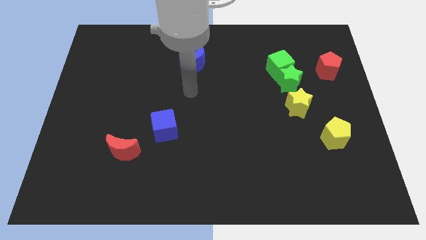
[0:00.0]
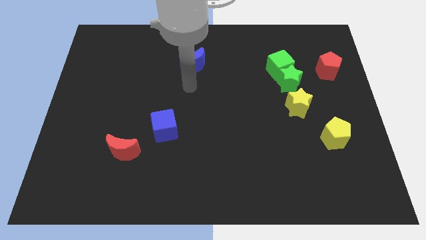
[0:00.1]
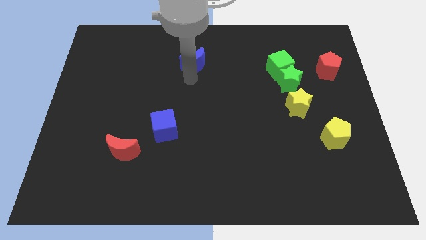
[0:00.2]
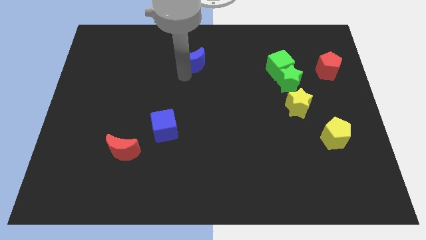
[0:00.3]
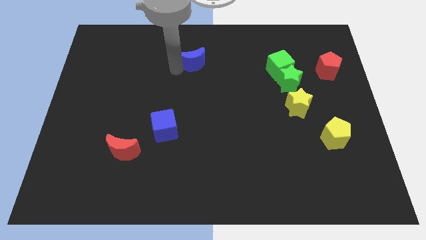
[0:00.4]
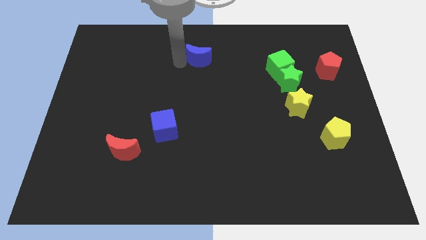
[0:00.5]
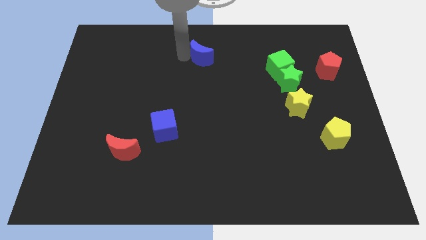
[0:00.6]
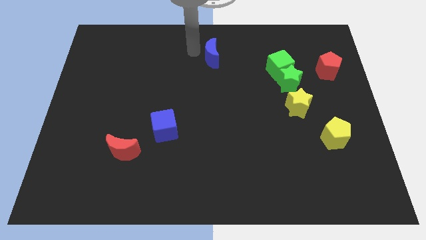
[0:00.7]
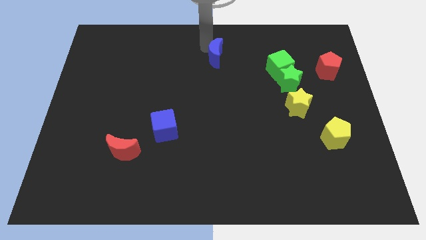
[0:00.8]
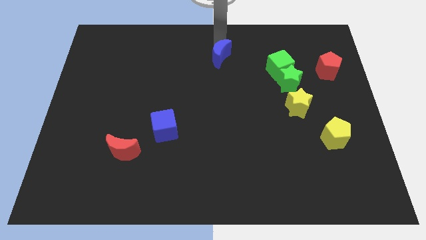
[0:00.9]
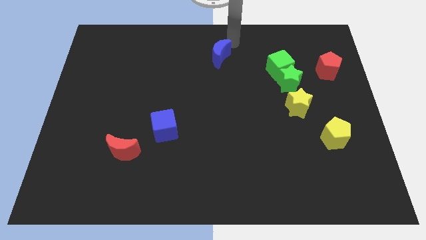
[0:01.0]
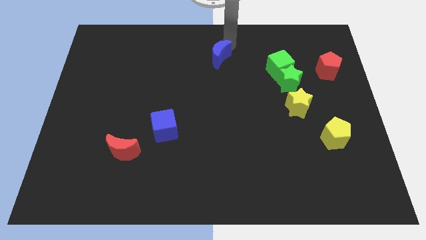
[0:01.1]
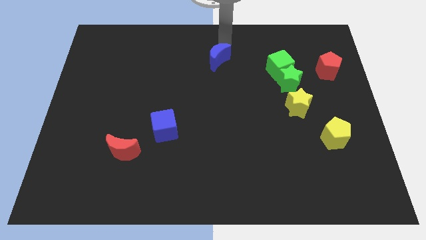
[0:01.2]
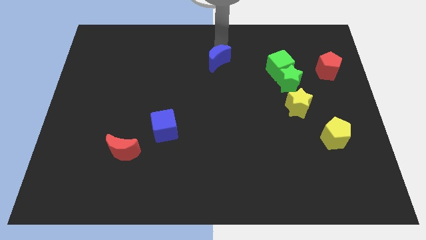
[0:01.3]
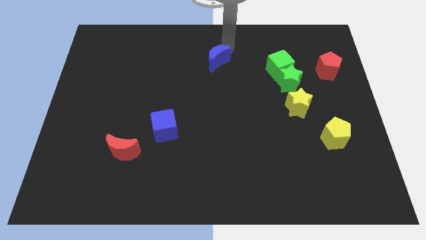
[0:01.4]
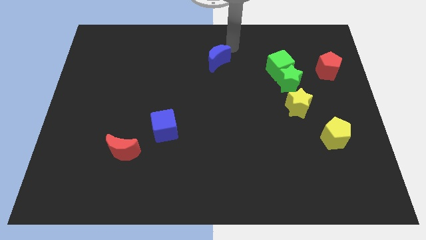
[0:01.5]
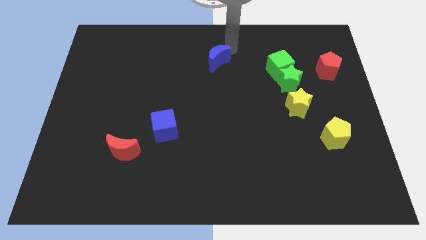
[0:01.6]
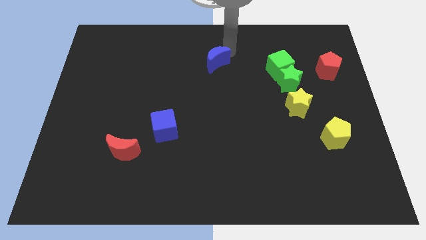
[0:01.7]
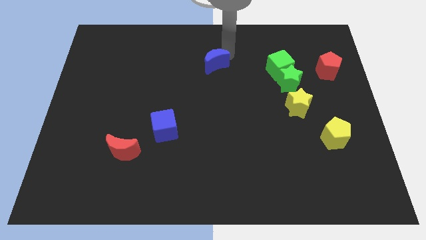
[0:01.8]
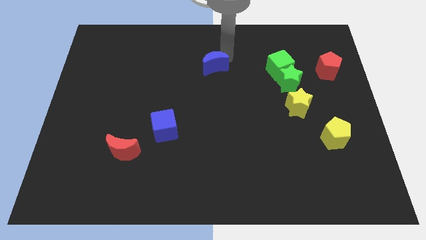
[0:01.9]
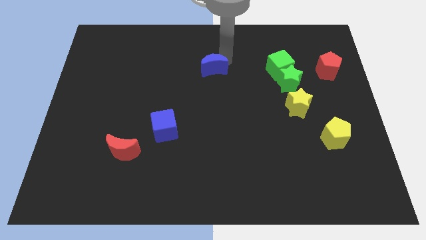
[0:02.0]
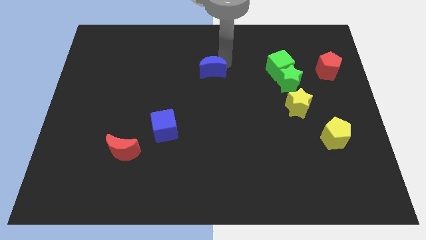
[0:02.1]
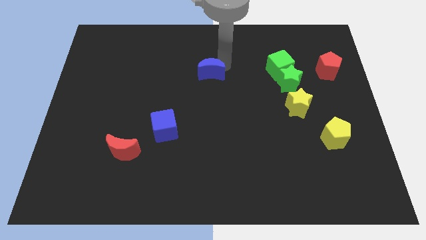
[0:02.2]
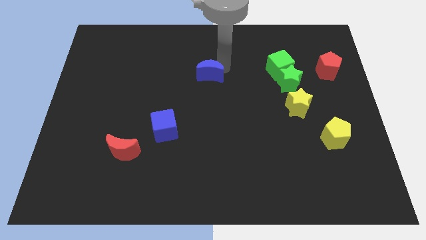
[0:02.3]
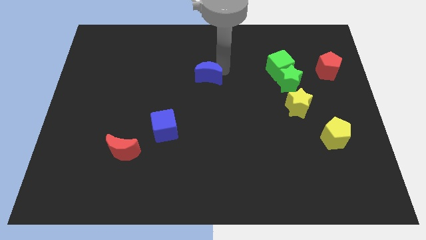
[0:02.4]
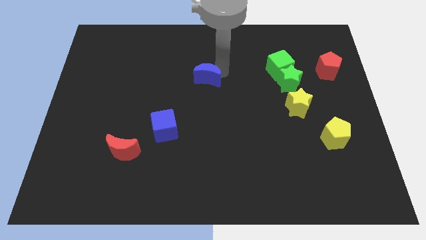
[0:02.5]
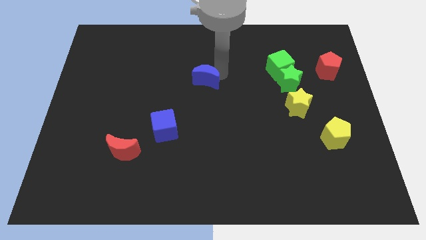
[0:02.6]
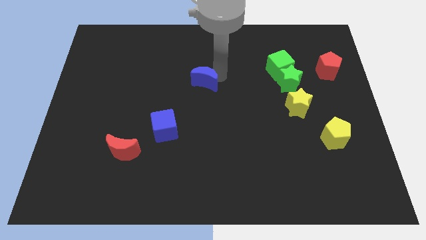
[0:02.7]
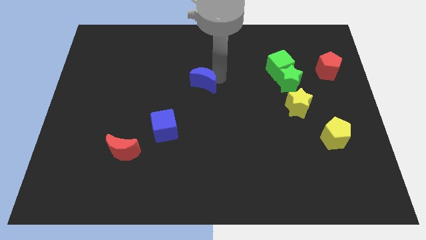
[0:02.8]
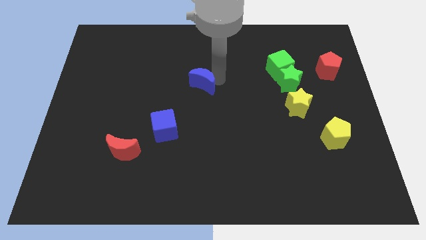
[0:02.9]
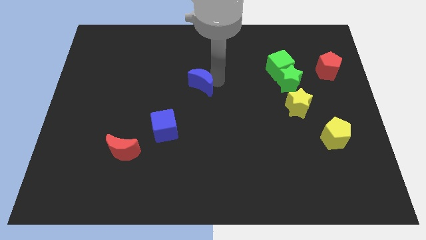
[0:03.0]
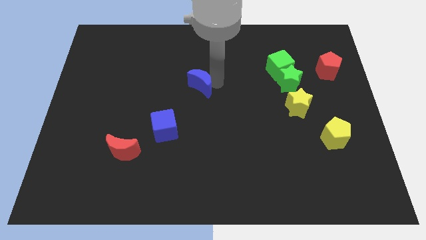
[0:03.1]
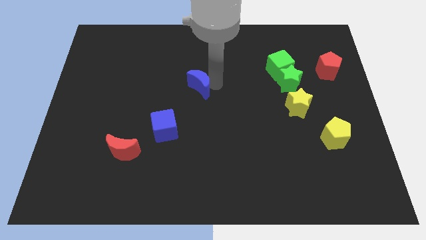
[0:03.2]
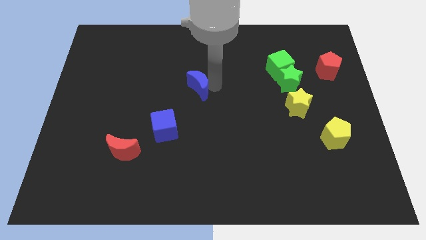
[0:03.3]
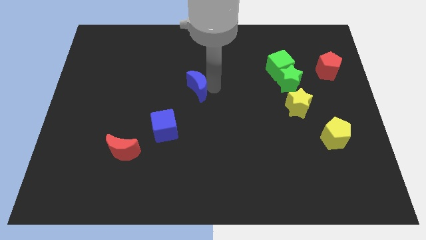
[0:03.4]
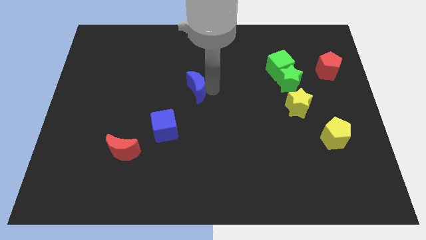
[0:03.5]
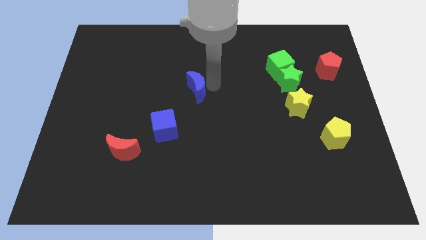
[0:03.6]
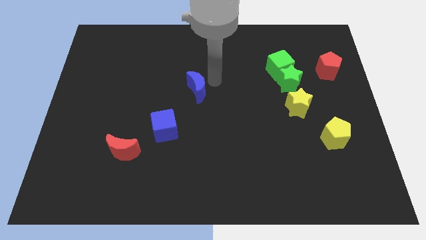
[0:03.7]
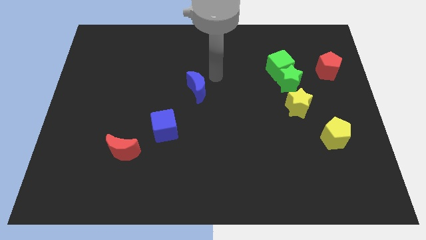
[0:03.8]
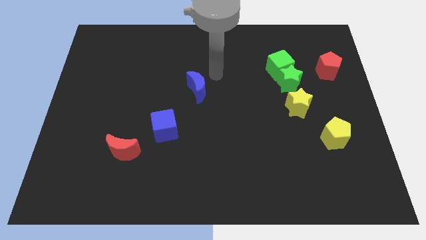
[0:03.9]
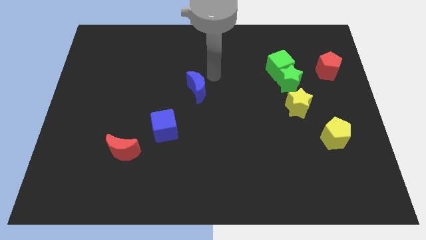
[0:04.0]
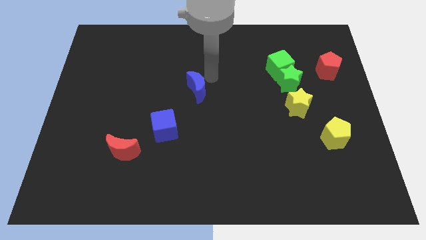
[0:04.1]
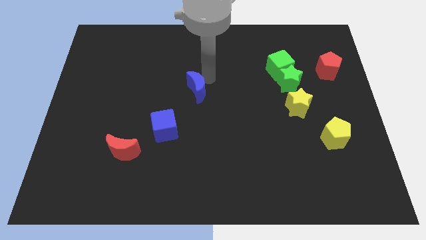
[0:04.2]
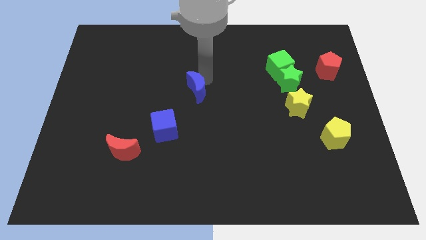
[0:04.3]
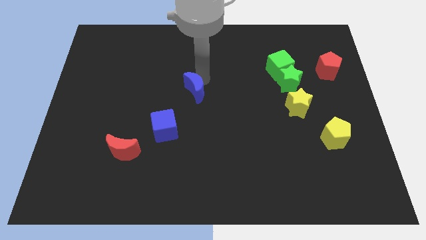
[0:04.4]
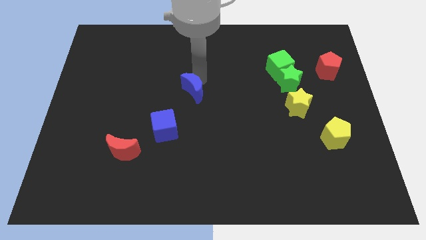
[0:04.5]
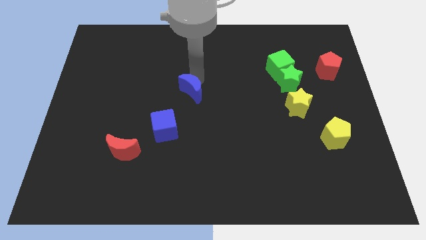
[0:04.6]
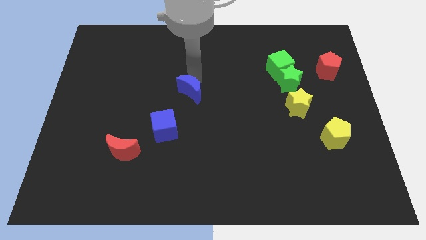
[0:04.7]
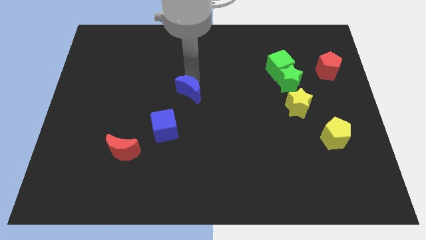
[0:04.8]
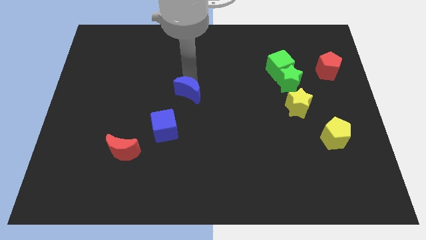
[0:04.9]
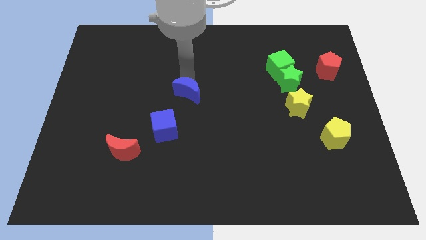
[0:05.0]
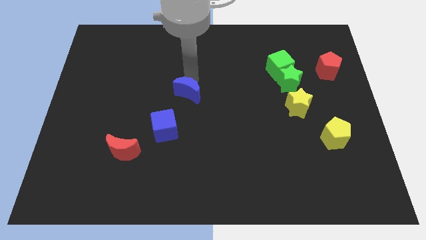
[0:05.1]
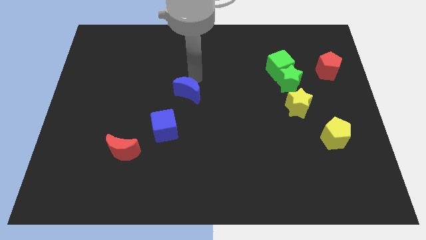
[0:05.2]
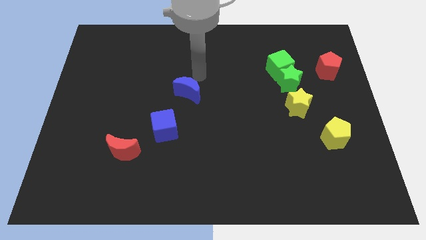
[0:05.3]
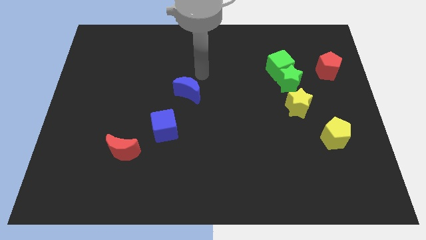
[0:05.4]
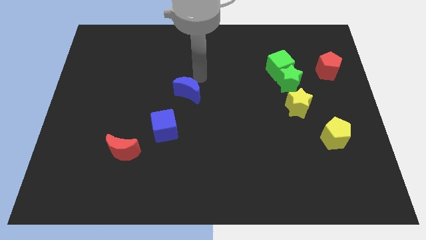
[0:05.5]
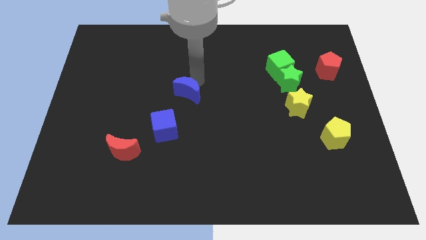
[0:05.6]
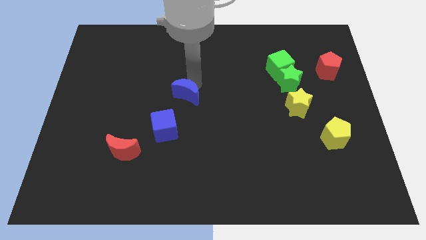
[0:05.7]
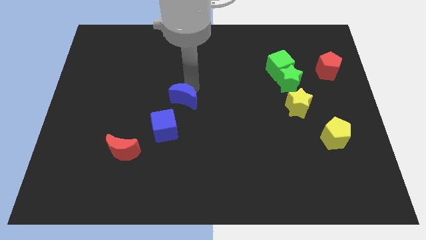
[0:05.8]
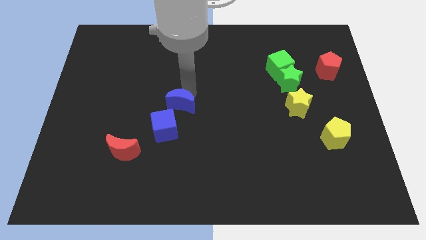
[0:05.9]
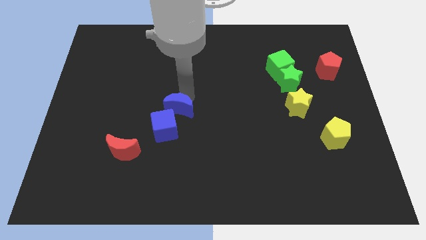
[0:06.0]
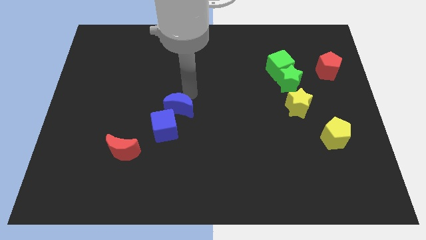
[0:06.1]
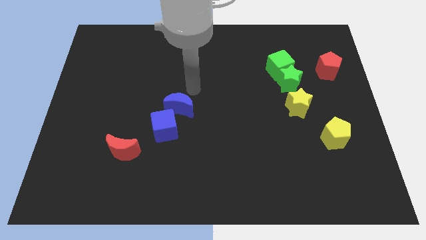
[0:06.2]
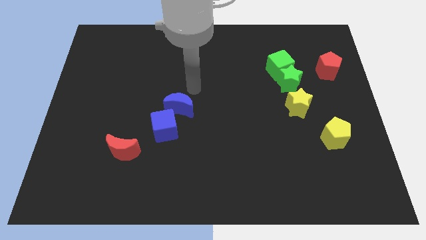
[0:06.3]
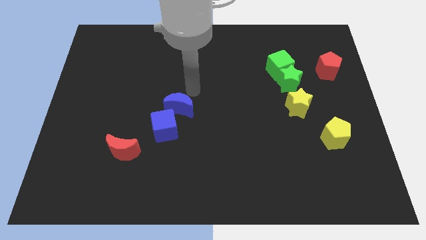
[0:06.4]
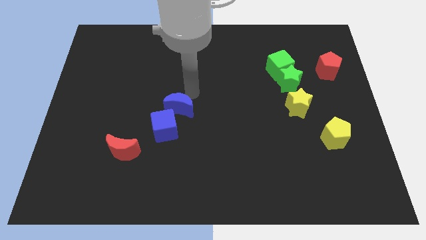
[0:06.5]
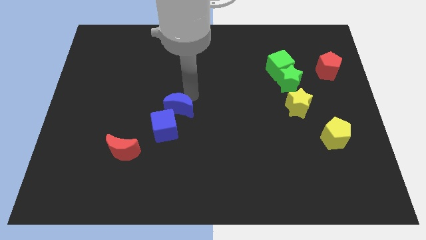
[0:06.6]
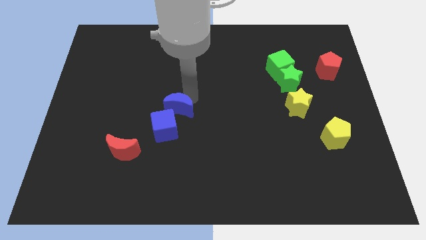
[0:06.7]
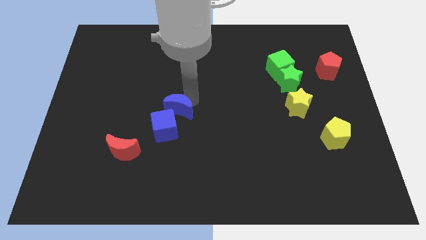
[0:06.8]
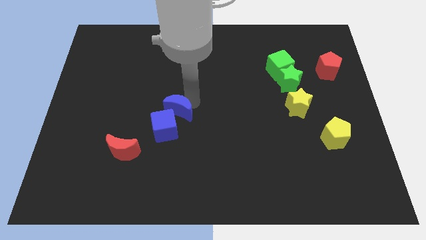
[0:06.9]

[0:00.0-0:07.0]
put the blue moon close to the blue cube

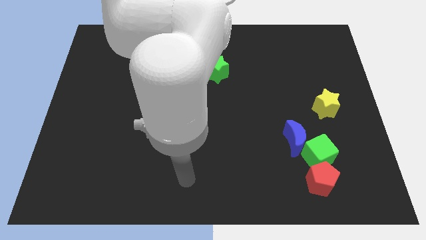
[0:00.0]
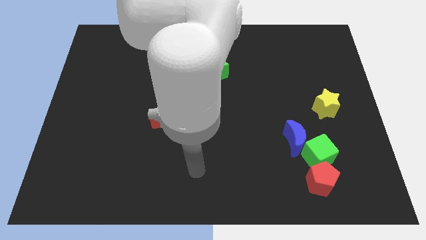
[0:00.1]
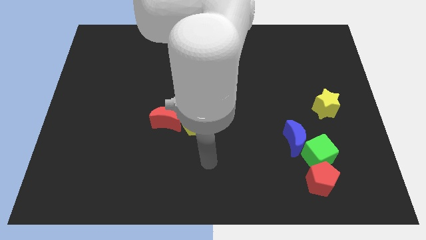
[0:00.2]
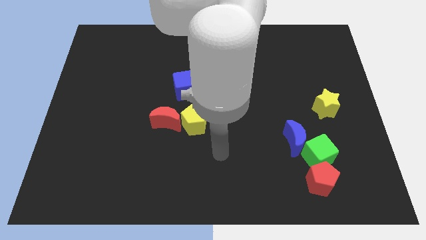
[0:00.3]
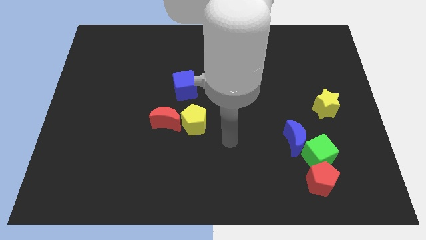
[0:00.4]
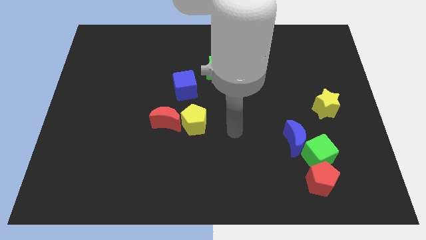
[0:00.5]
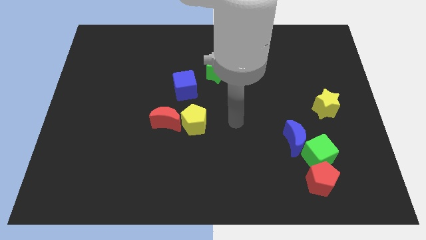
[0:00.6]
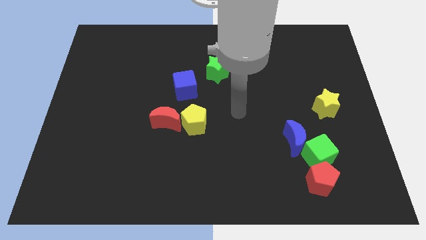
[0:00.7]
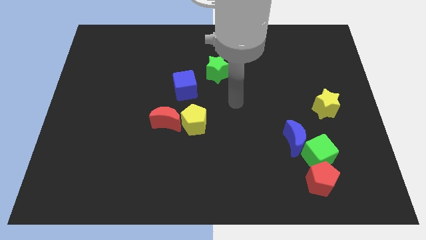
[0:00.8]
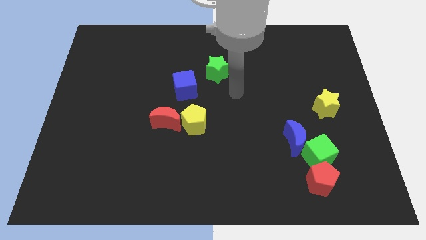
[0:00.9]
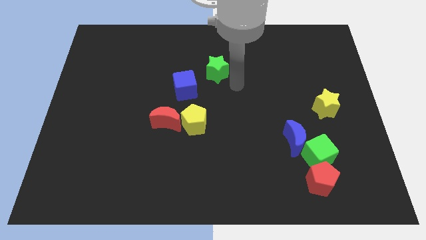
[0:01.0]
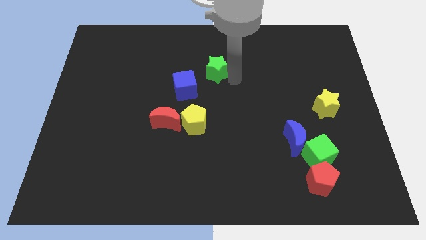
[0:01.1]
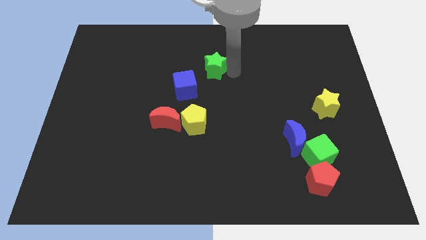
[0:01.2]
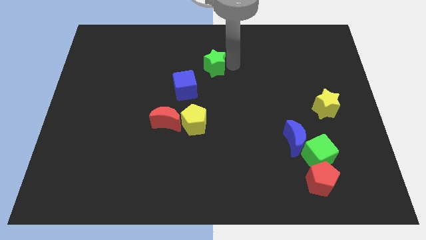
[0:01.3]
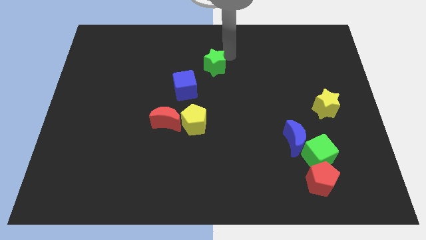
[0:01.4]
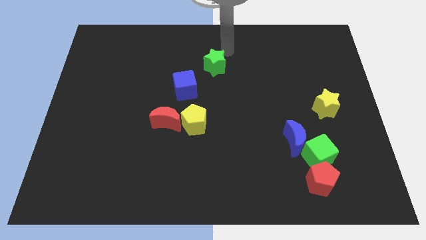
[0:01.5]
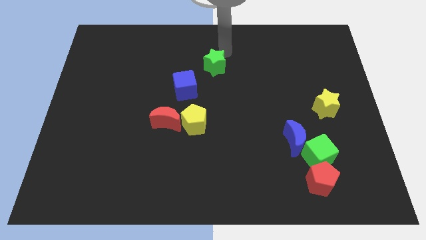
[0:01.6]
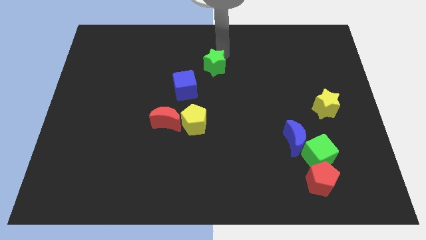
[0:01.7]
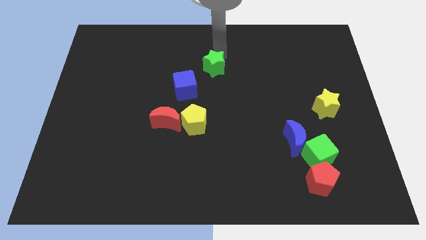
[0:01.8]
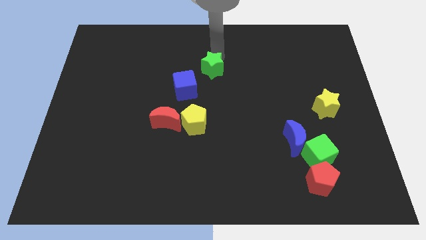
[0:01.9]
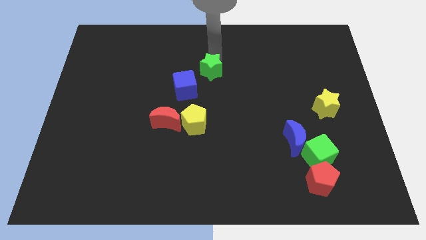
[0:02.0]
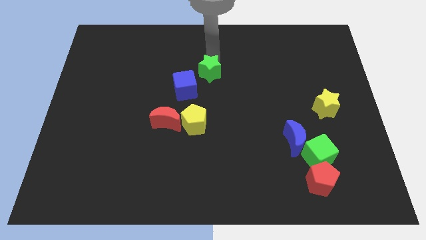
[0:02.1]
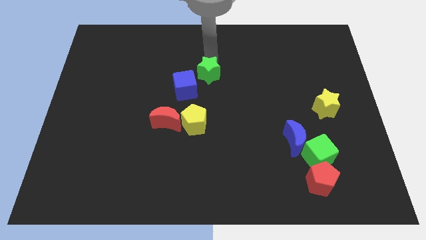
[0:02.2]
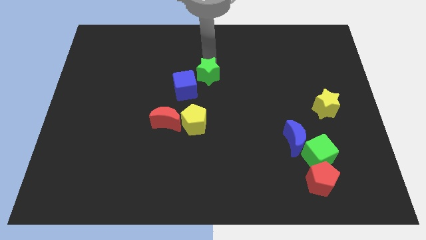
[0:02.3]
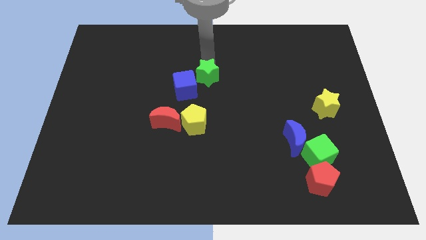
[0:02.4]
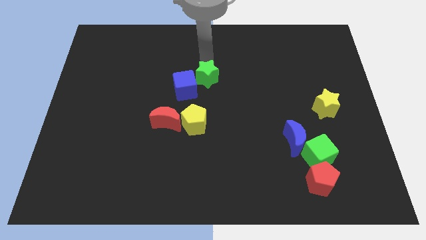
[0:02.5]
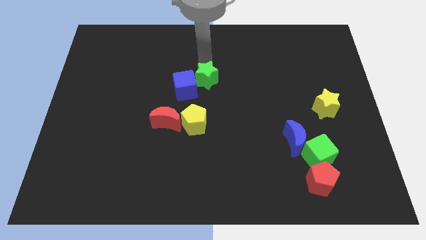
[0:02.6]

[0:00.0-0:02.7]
push the green star towards the blue cube
